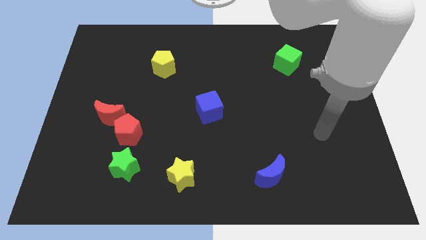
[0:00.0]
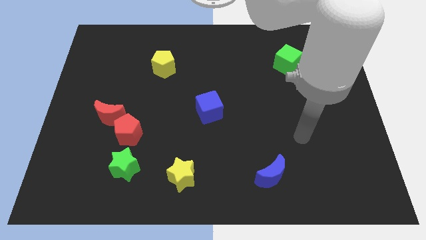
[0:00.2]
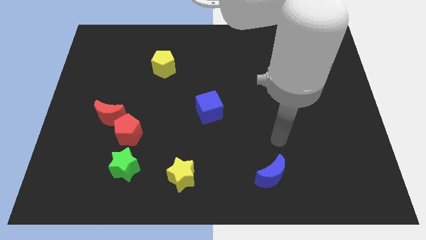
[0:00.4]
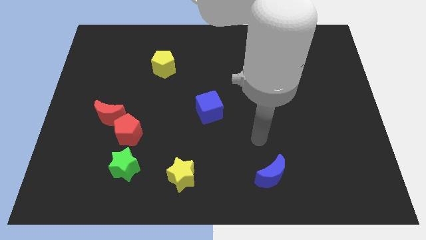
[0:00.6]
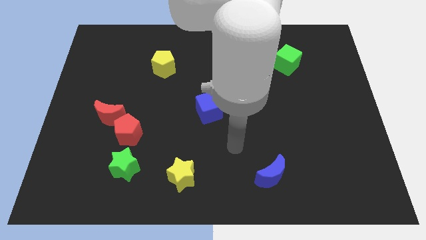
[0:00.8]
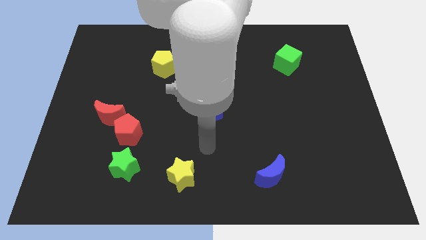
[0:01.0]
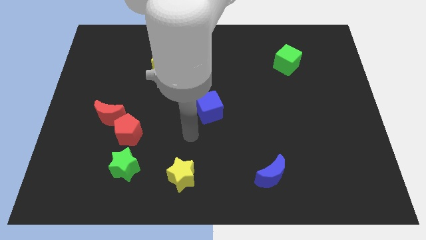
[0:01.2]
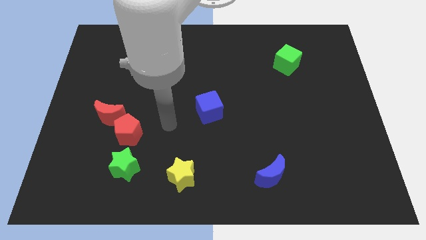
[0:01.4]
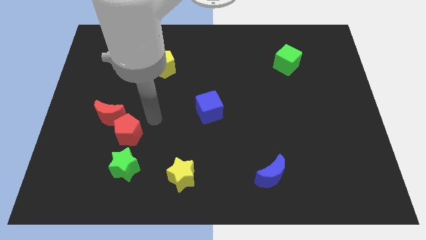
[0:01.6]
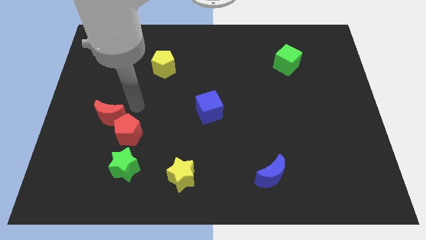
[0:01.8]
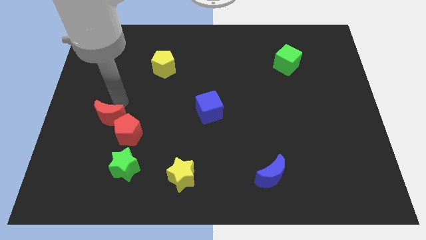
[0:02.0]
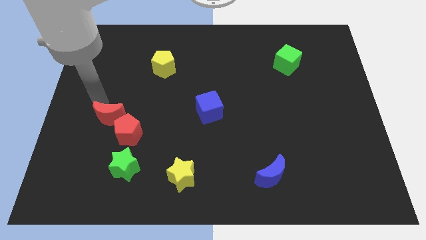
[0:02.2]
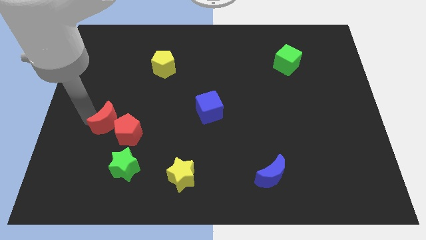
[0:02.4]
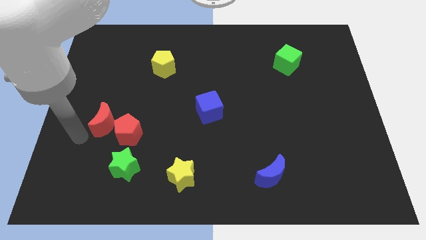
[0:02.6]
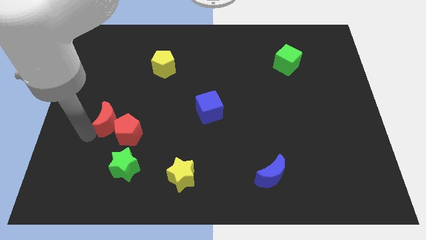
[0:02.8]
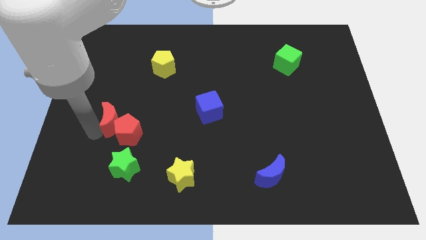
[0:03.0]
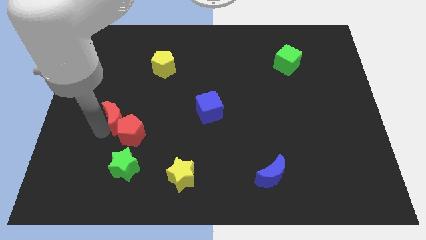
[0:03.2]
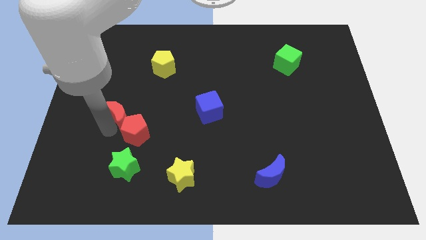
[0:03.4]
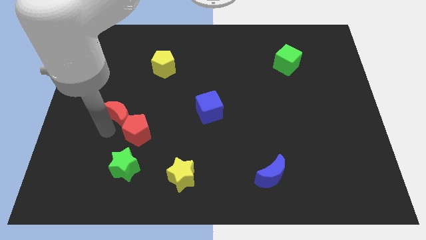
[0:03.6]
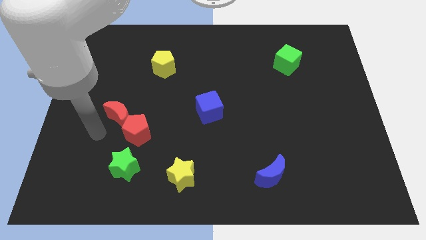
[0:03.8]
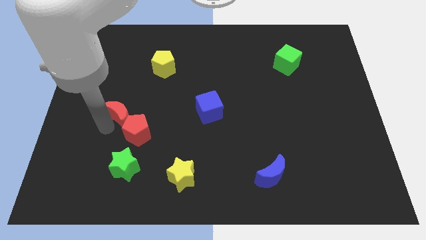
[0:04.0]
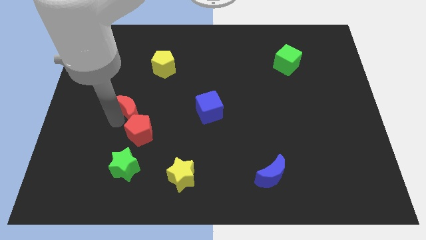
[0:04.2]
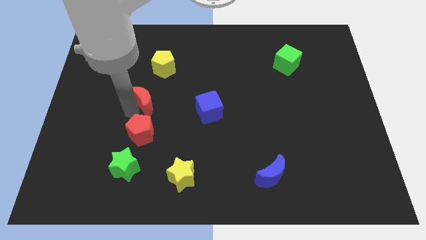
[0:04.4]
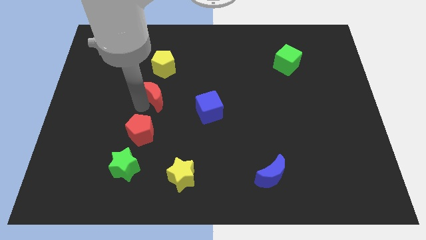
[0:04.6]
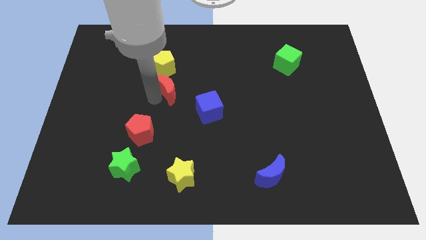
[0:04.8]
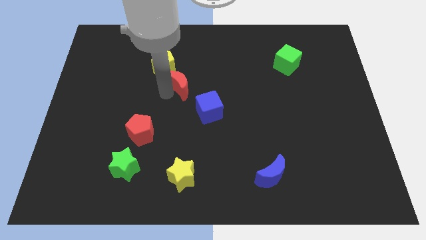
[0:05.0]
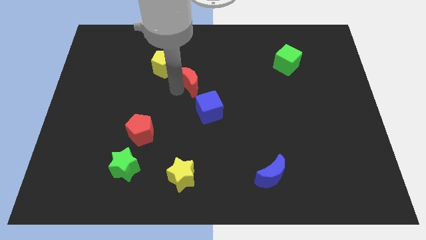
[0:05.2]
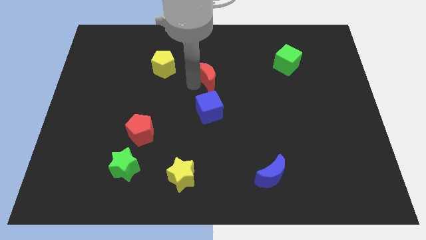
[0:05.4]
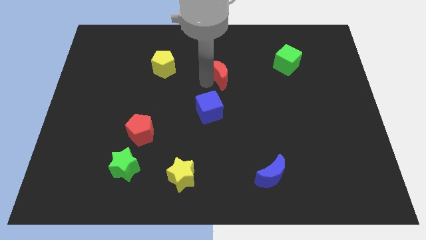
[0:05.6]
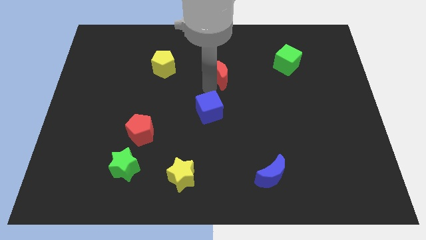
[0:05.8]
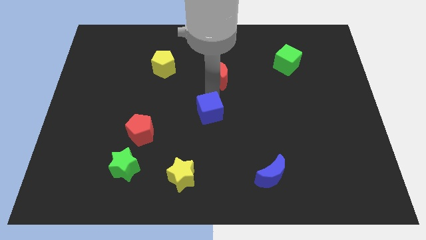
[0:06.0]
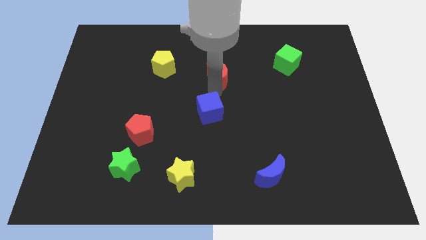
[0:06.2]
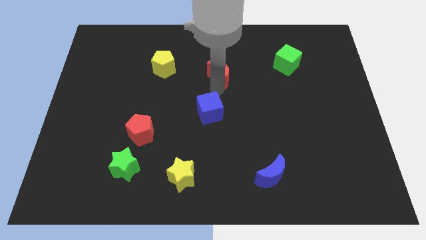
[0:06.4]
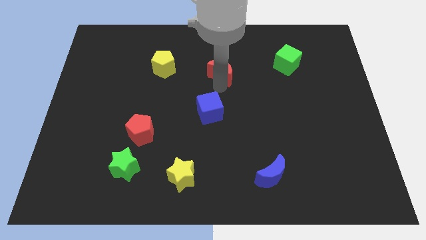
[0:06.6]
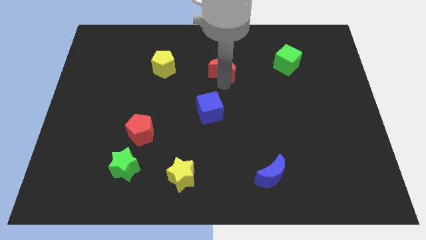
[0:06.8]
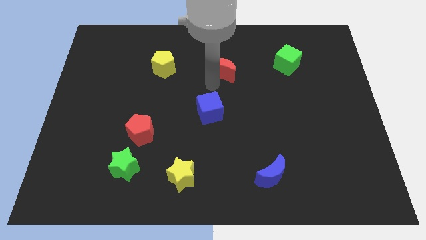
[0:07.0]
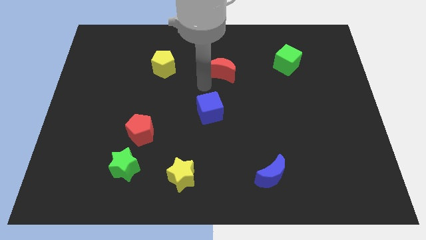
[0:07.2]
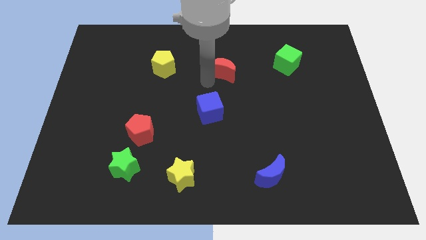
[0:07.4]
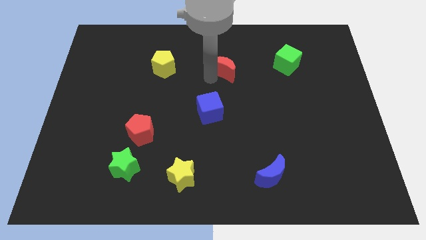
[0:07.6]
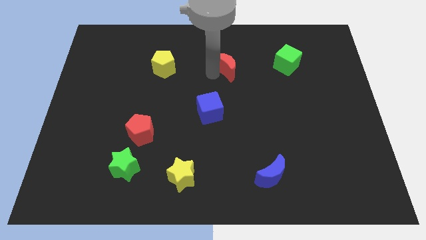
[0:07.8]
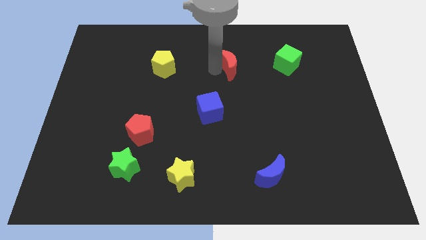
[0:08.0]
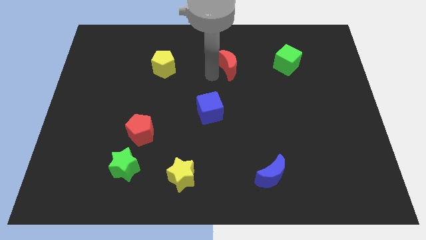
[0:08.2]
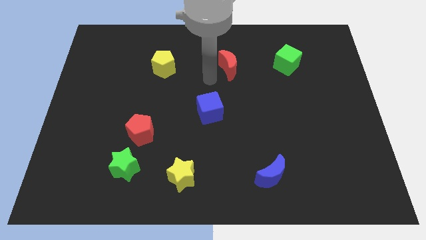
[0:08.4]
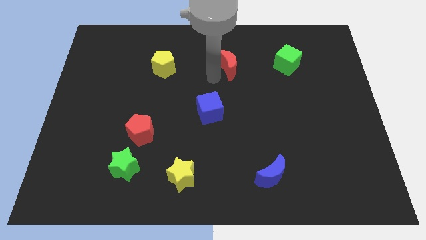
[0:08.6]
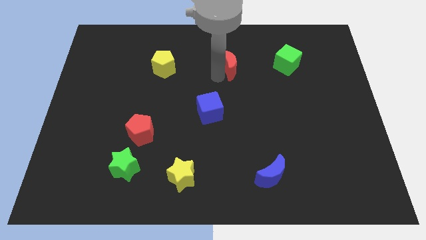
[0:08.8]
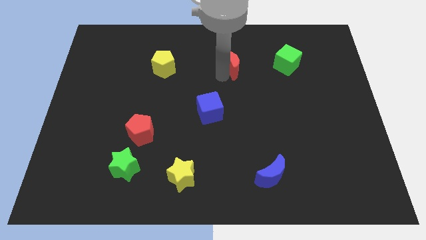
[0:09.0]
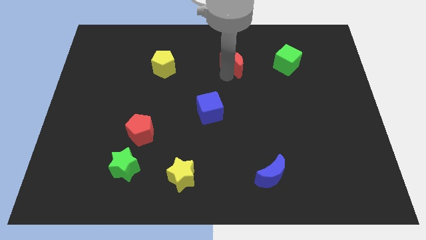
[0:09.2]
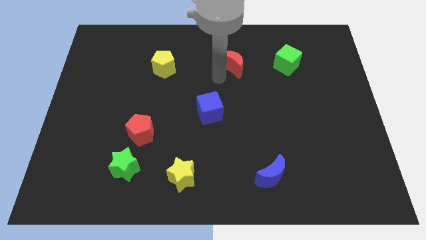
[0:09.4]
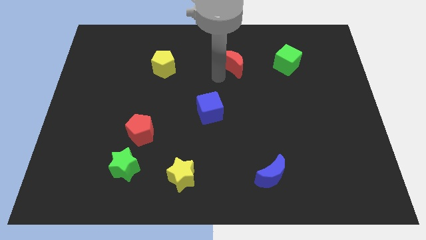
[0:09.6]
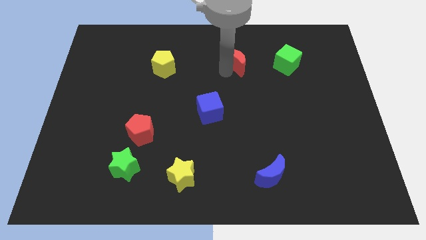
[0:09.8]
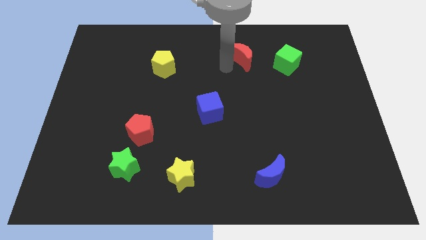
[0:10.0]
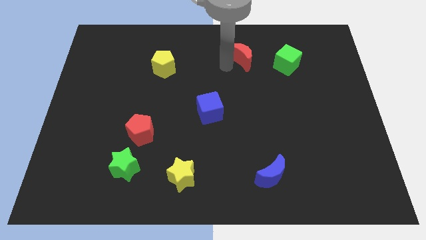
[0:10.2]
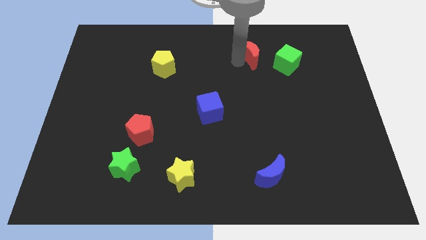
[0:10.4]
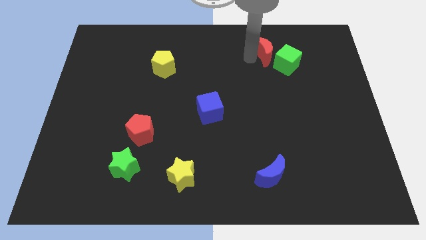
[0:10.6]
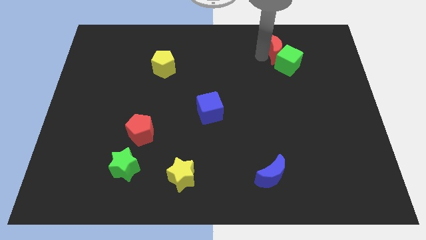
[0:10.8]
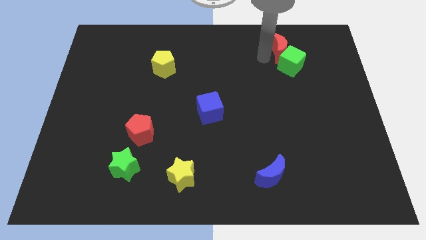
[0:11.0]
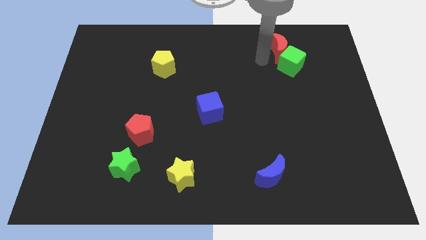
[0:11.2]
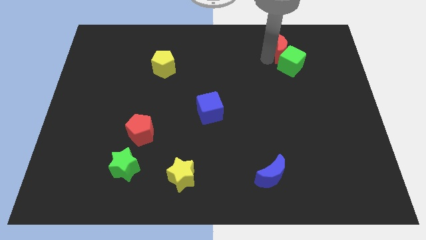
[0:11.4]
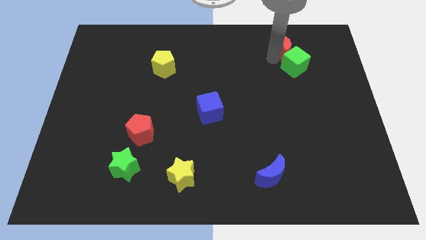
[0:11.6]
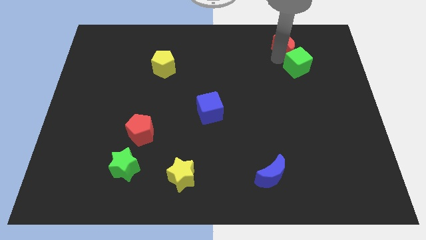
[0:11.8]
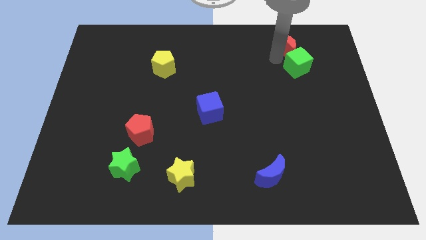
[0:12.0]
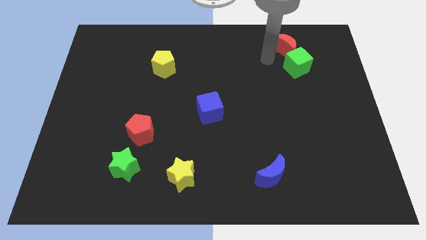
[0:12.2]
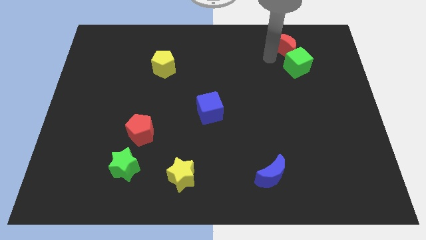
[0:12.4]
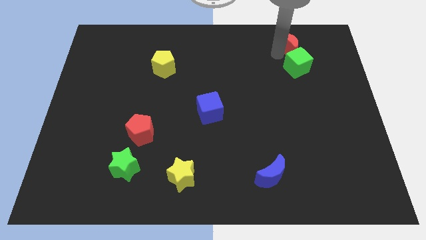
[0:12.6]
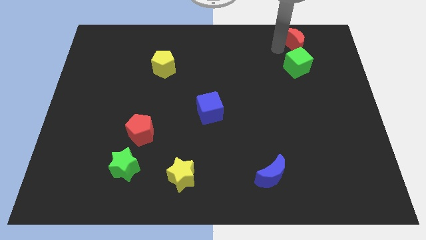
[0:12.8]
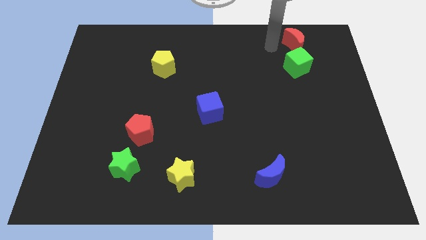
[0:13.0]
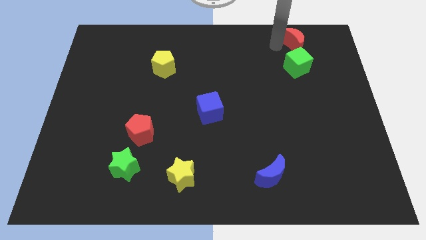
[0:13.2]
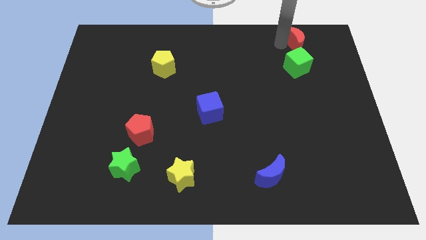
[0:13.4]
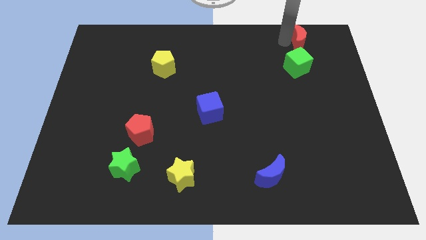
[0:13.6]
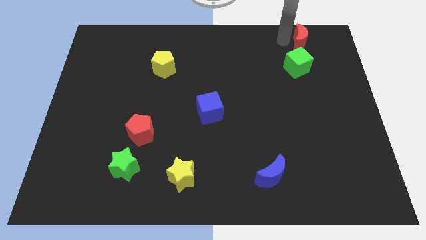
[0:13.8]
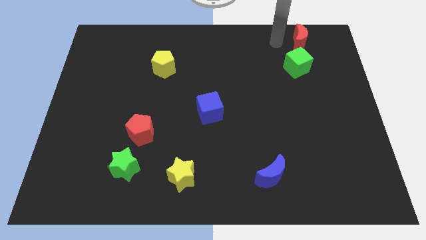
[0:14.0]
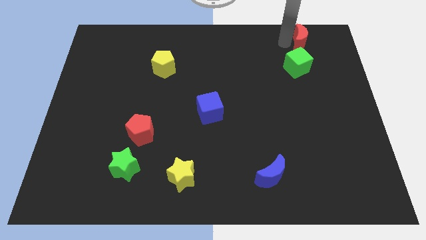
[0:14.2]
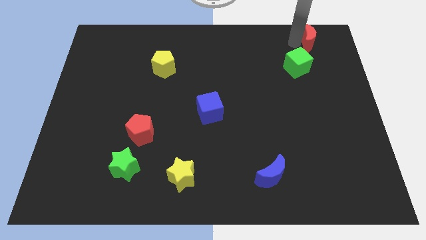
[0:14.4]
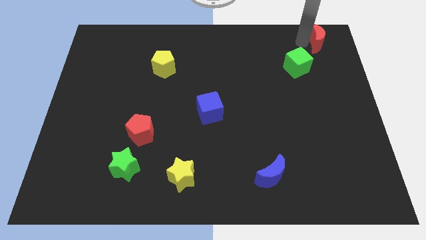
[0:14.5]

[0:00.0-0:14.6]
push the red moon to the top right
